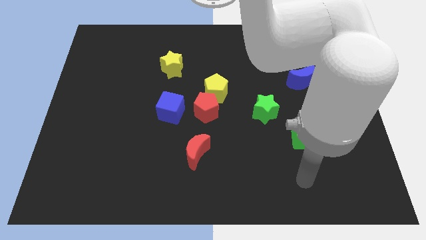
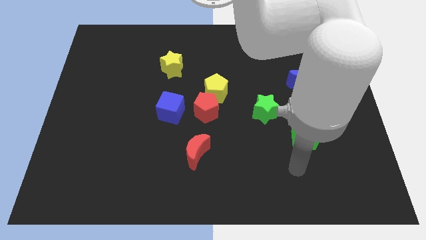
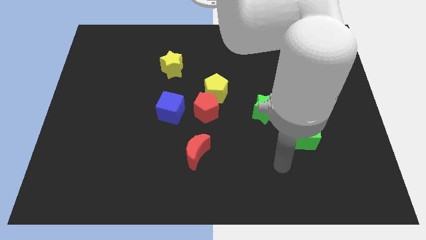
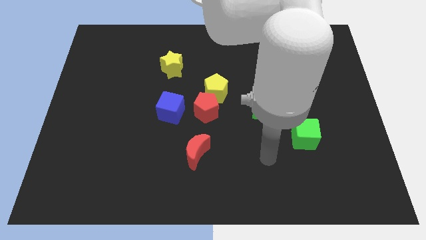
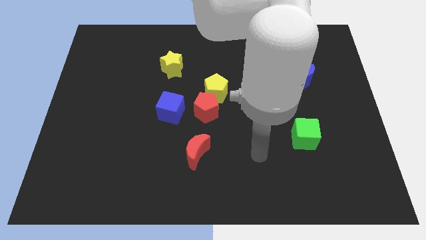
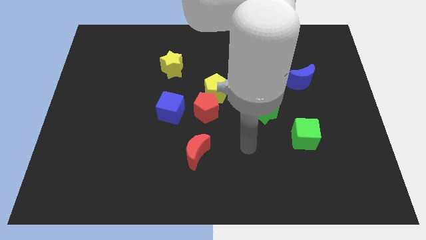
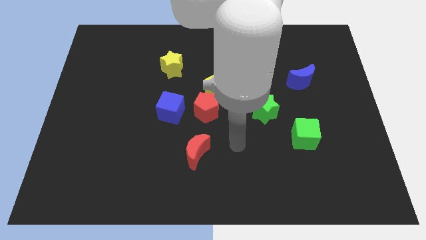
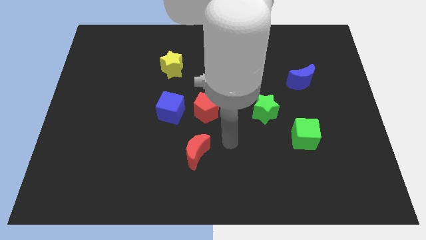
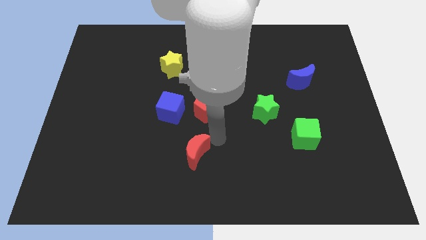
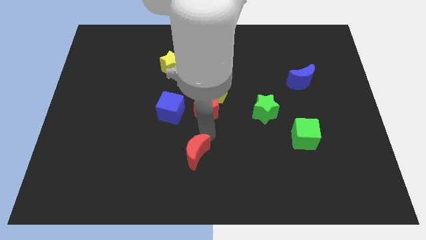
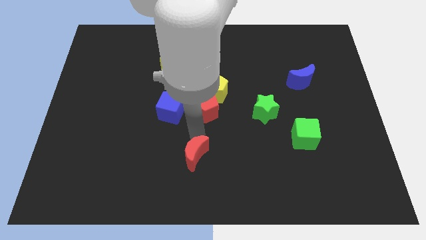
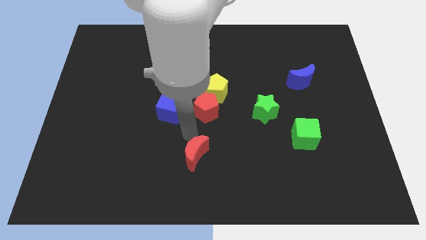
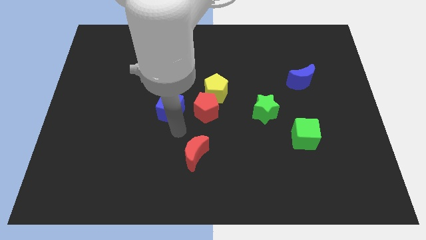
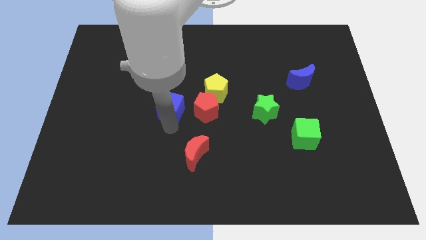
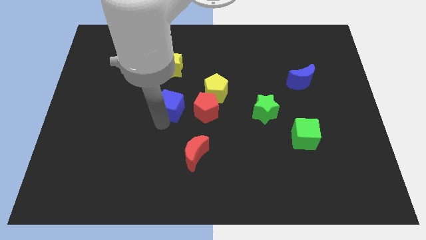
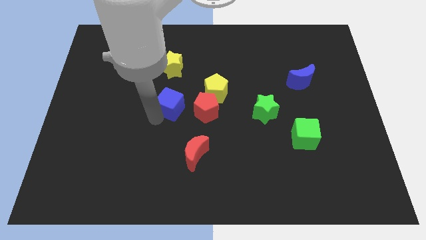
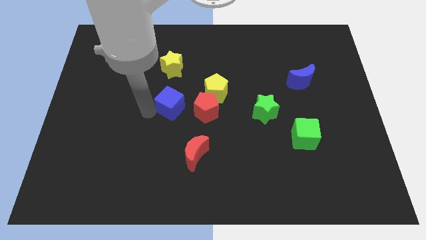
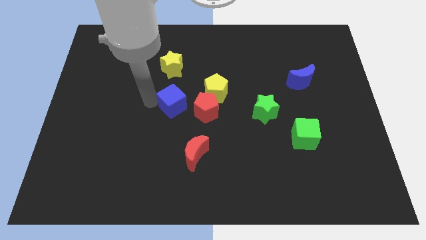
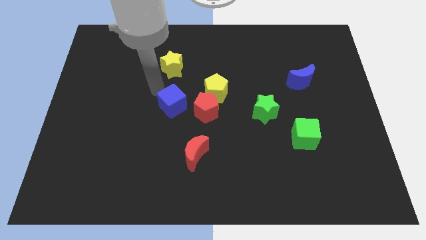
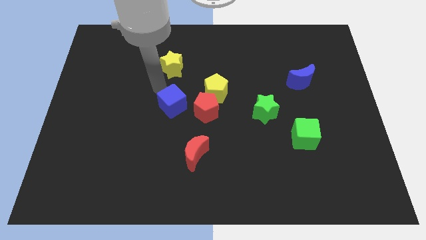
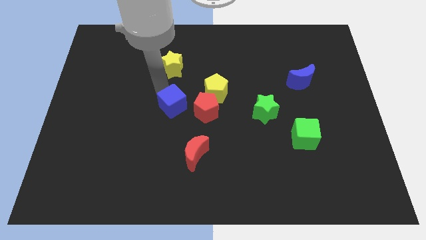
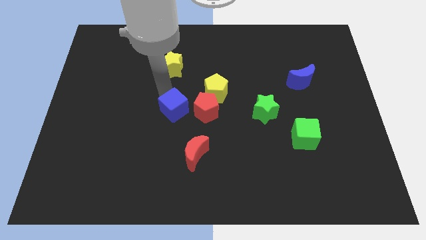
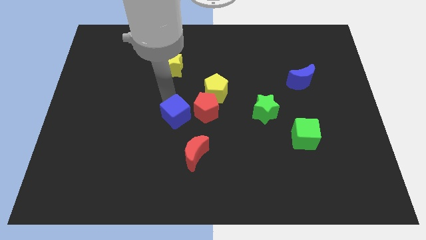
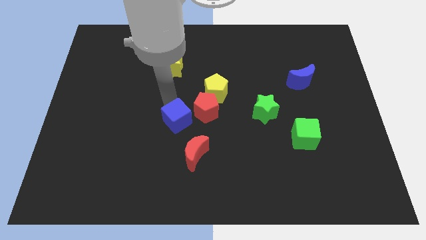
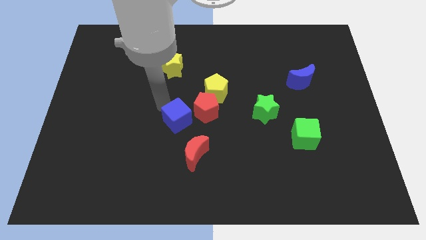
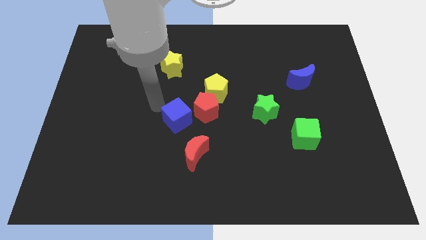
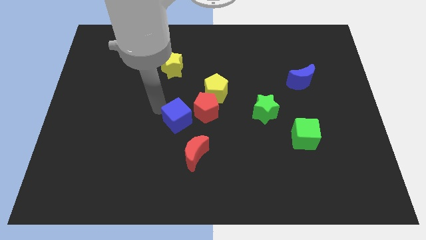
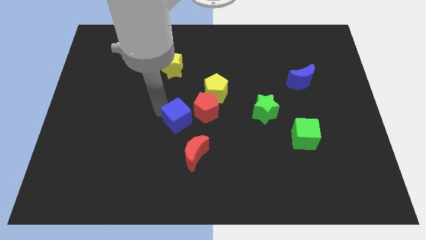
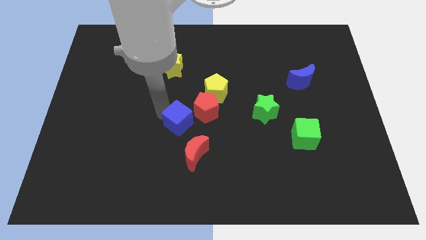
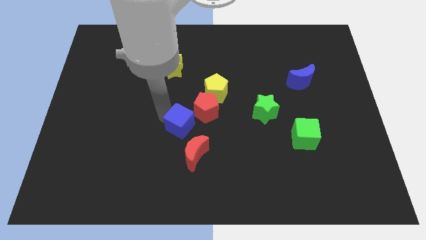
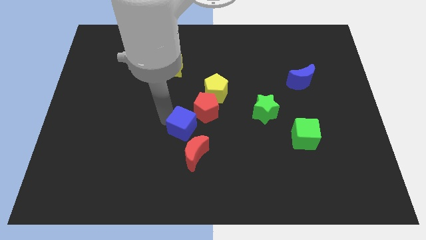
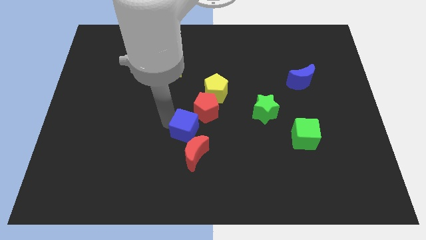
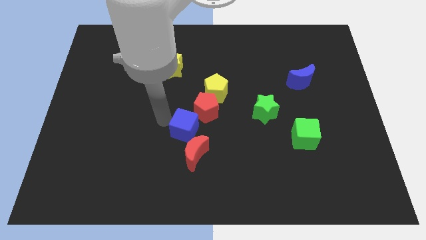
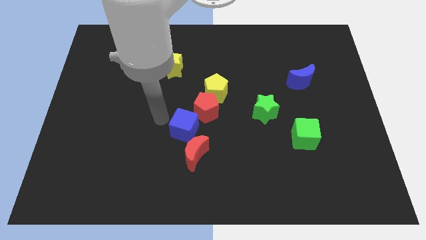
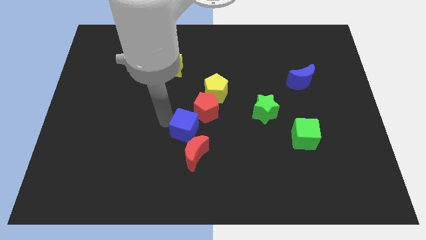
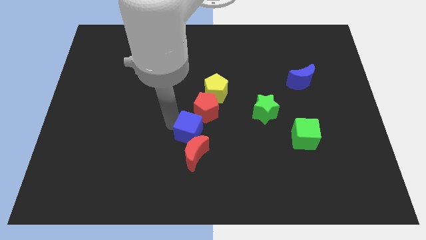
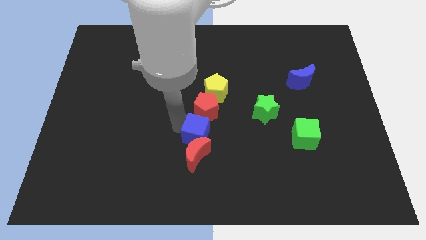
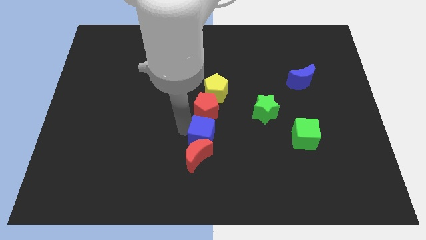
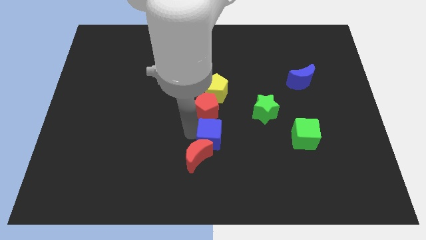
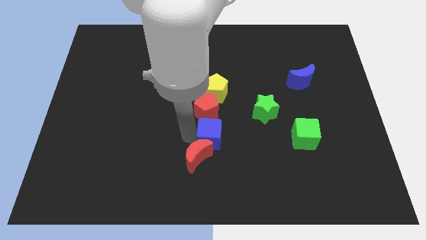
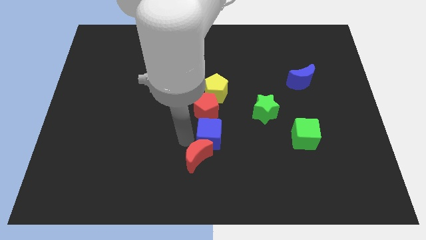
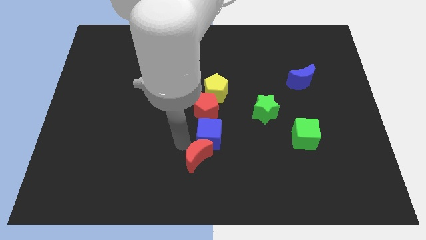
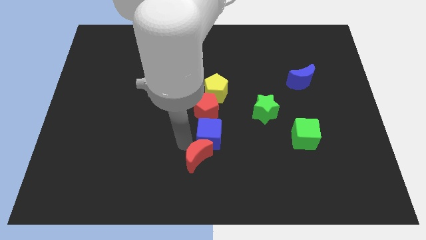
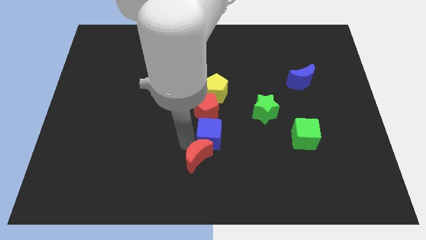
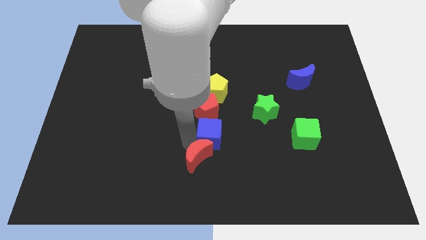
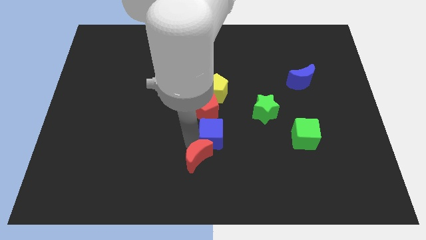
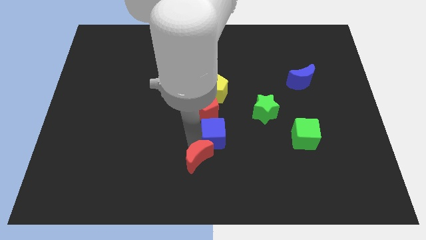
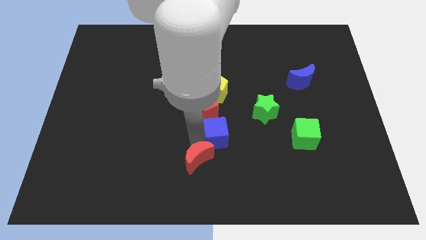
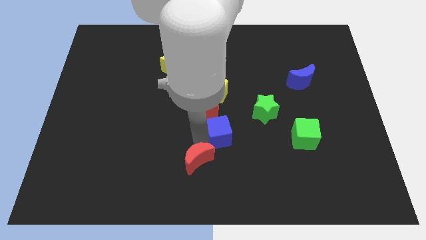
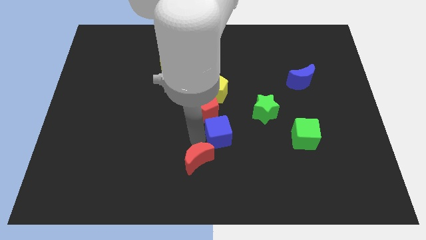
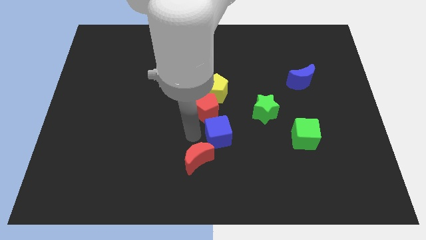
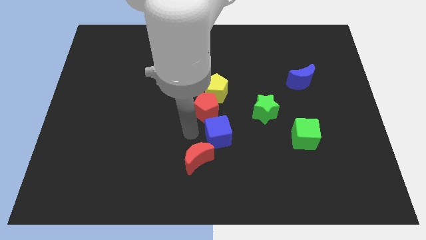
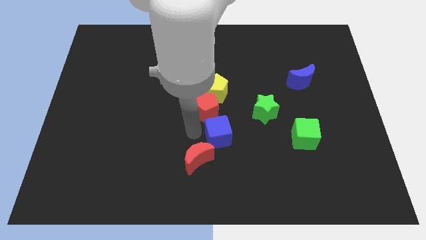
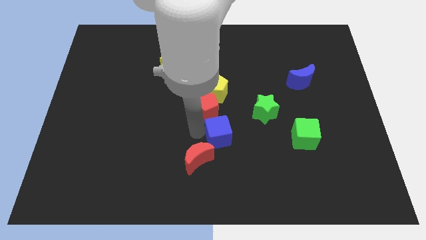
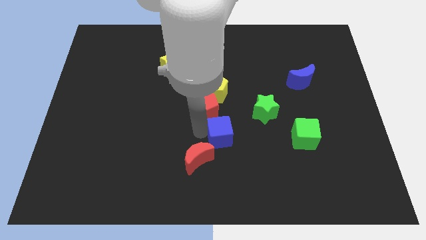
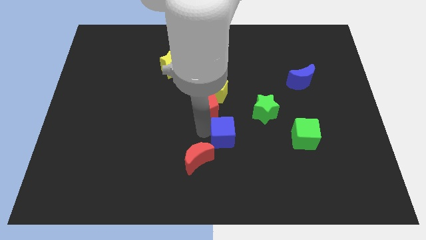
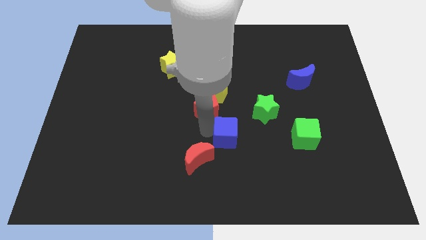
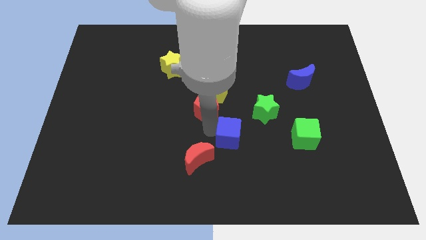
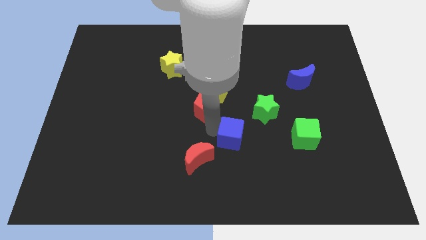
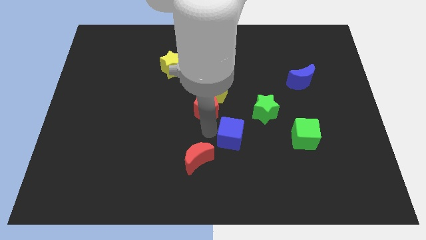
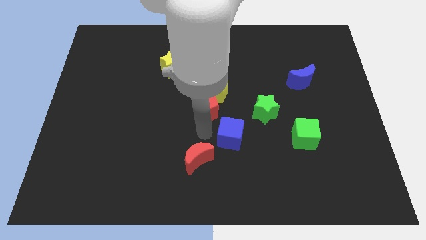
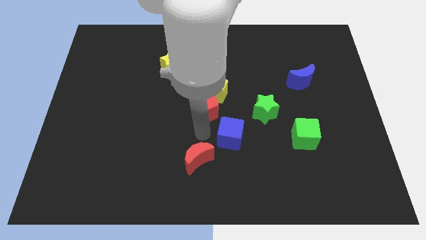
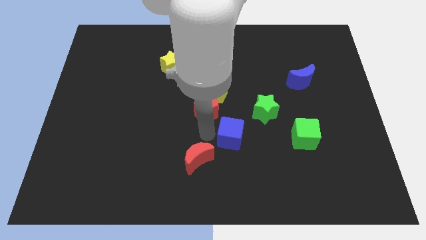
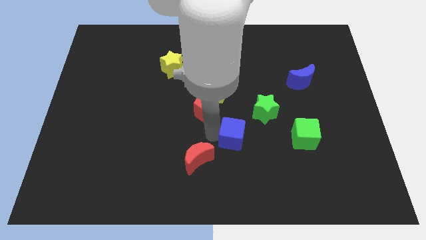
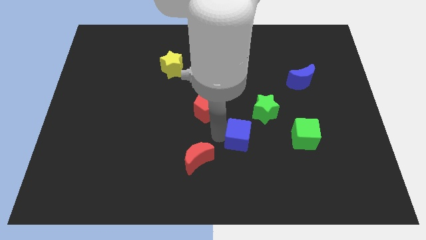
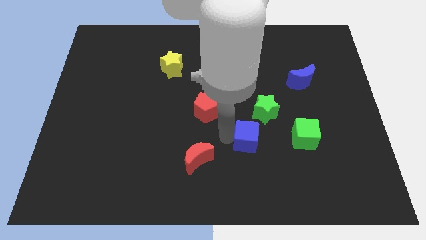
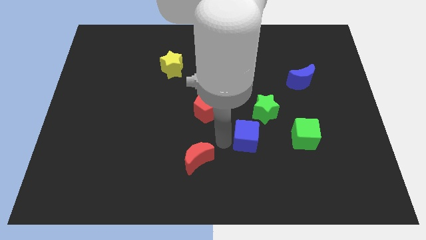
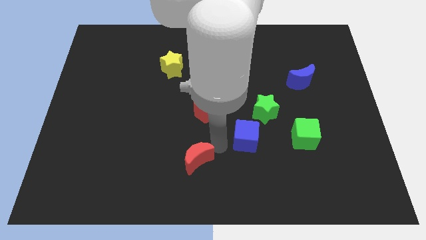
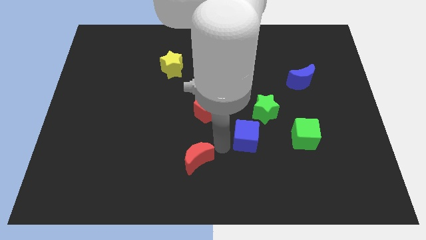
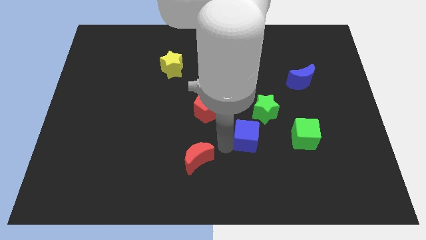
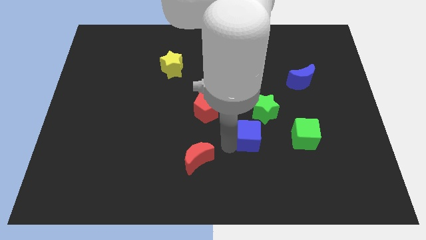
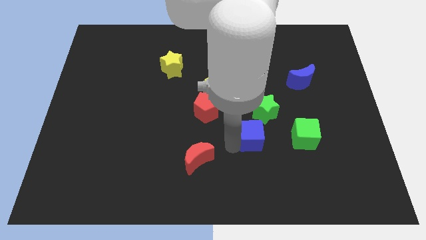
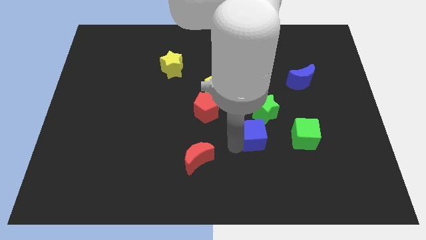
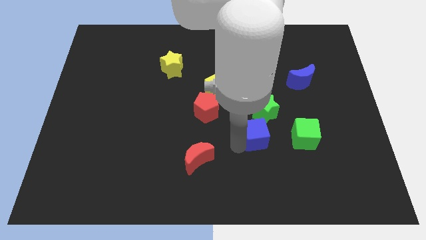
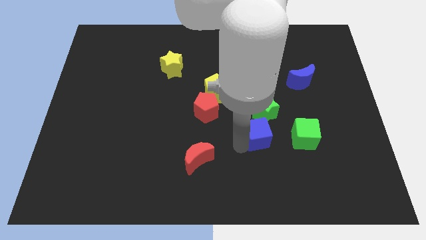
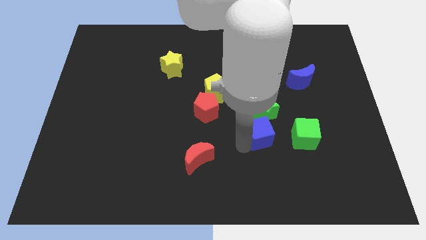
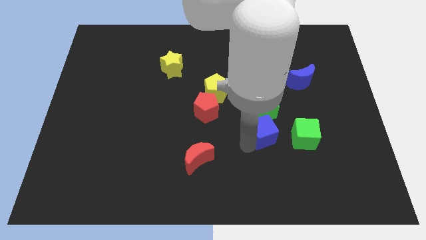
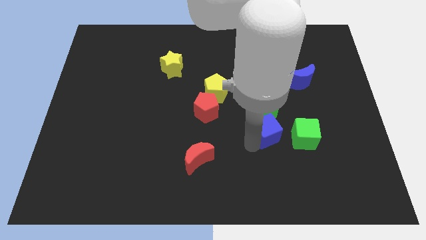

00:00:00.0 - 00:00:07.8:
slide the blue cube right

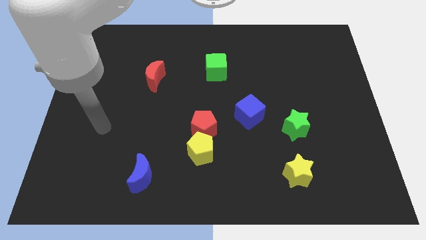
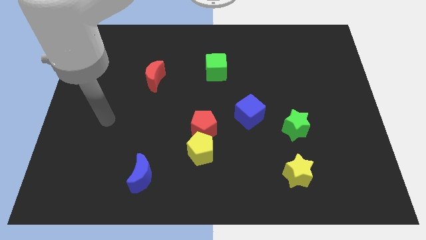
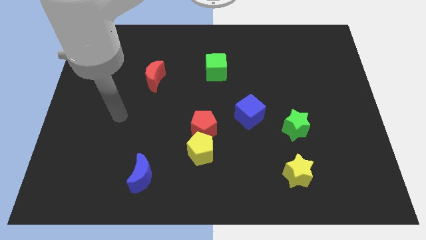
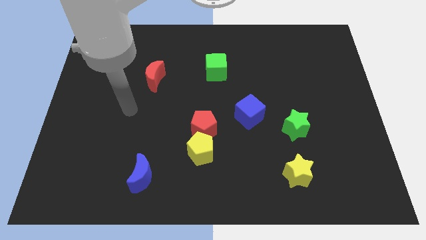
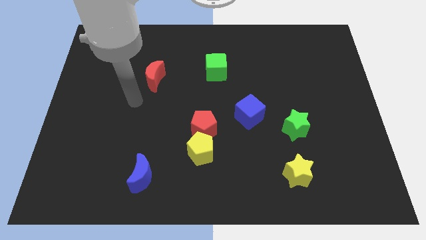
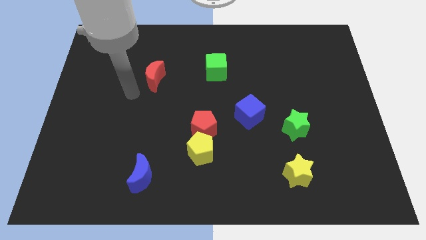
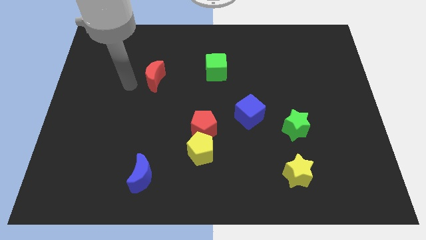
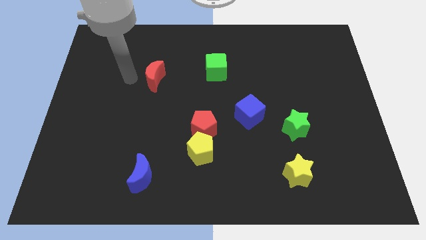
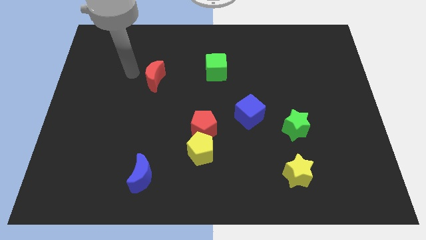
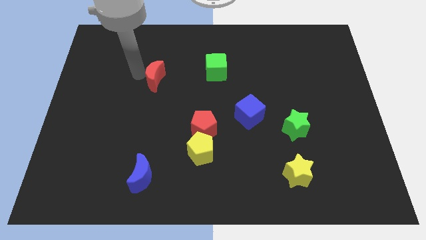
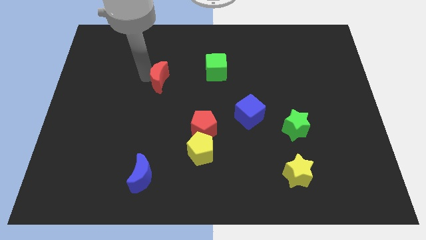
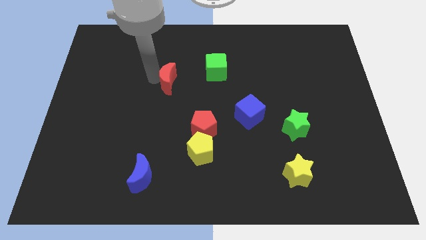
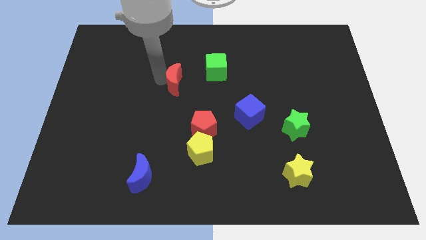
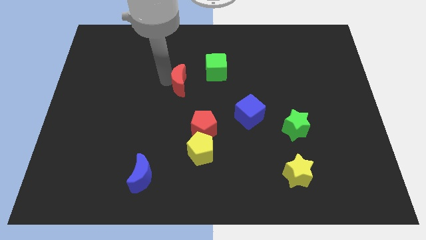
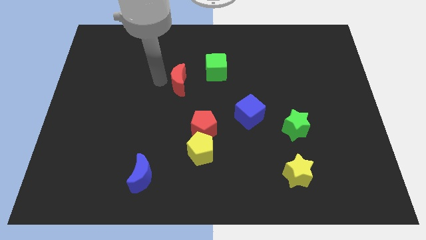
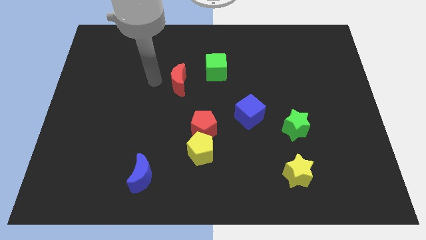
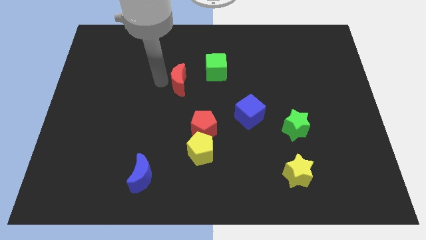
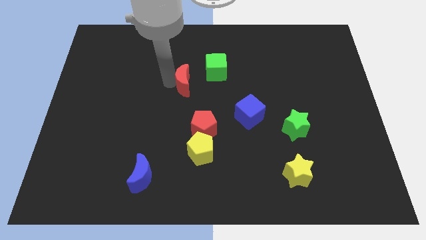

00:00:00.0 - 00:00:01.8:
slightly push the red moon right
